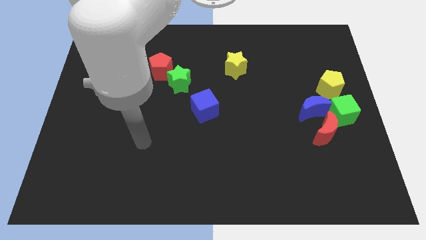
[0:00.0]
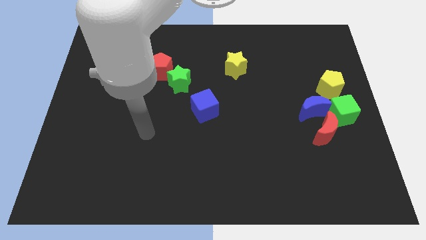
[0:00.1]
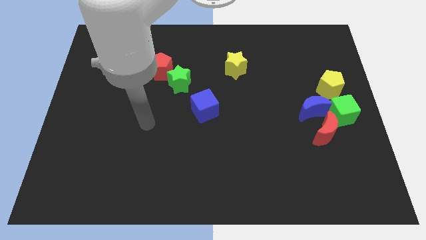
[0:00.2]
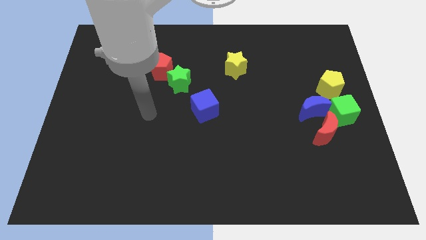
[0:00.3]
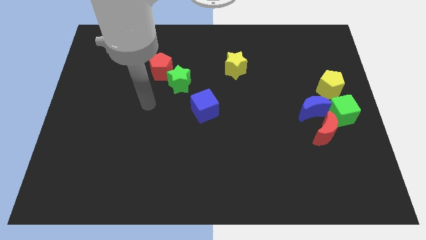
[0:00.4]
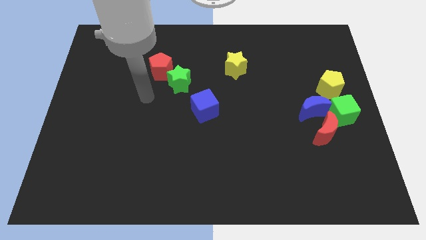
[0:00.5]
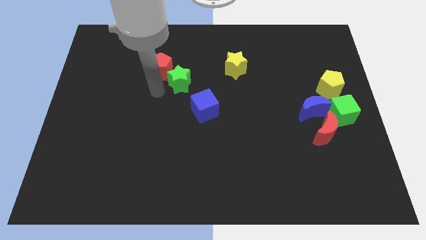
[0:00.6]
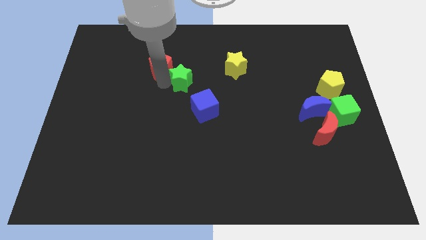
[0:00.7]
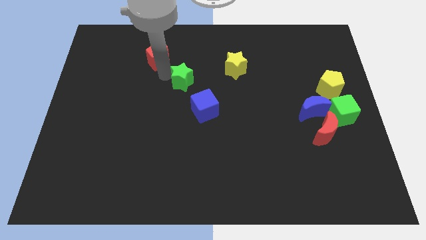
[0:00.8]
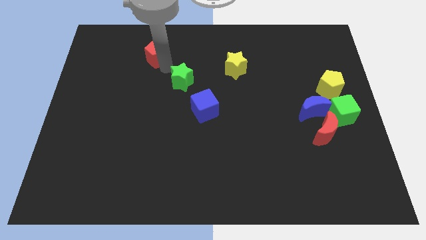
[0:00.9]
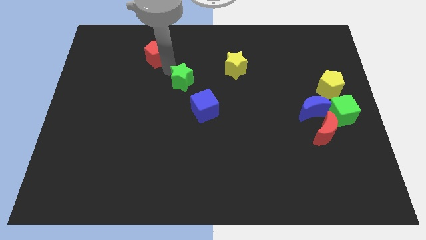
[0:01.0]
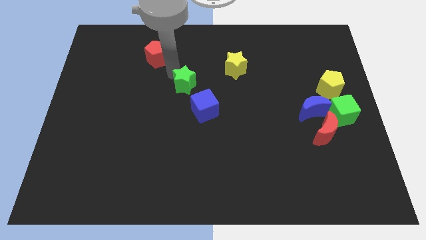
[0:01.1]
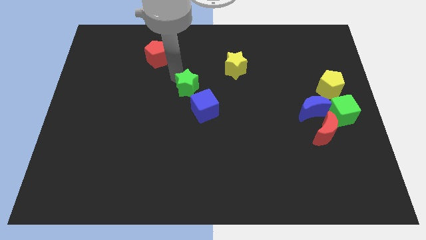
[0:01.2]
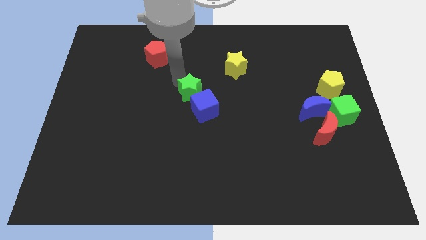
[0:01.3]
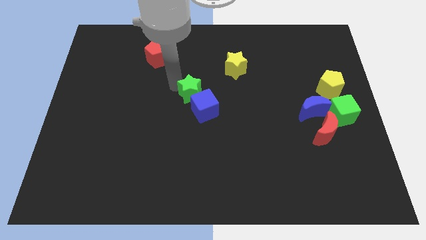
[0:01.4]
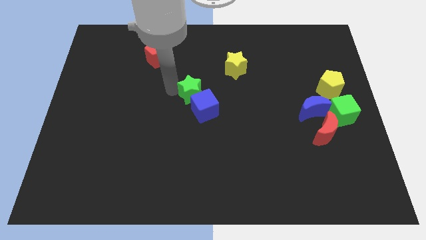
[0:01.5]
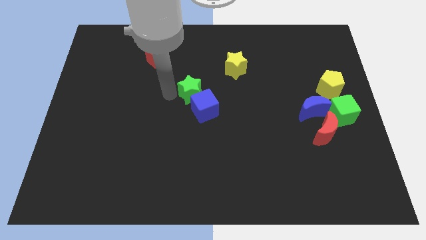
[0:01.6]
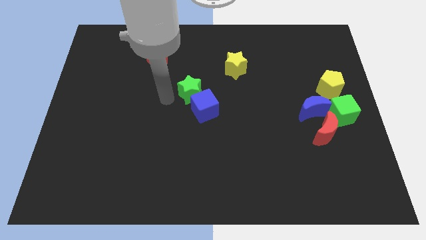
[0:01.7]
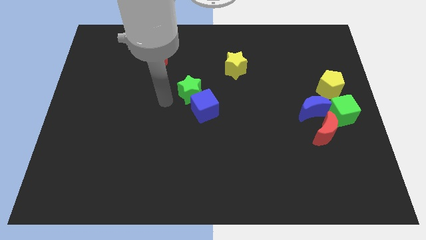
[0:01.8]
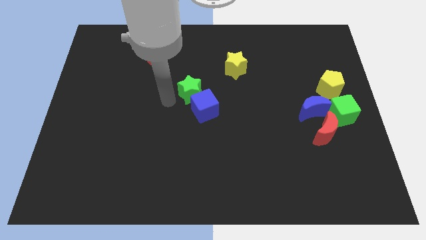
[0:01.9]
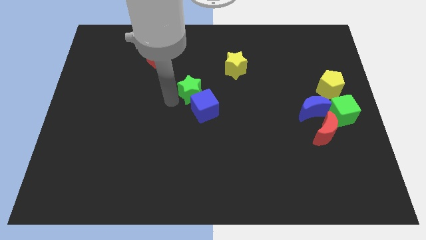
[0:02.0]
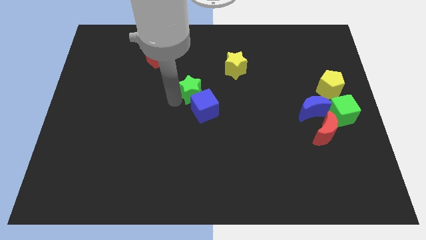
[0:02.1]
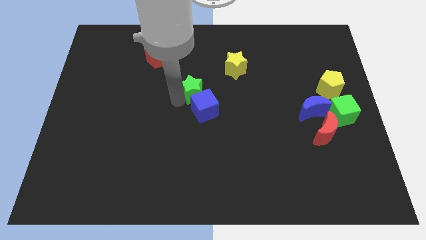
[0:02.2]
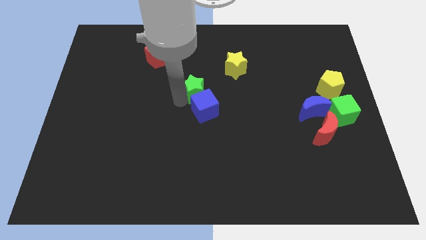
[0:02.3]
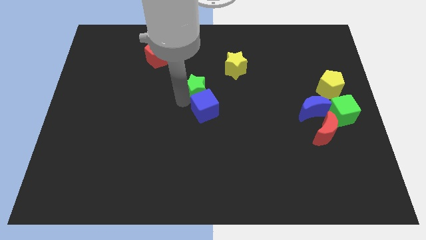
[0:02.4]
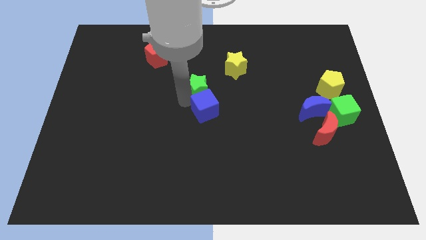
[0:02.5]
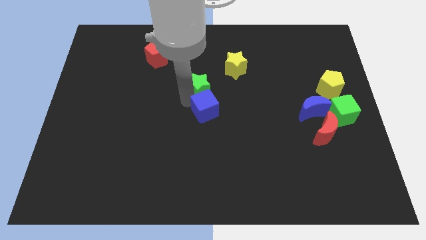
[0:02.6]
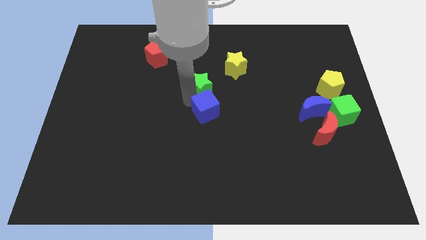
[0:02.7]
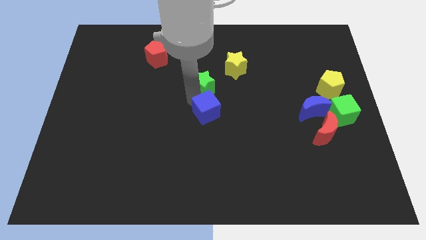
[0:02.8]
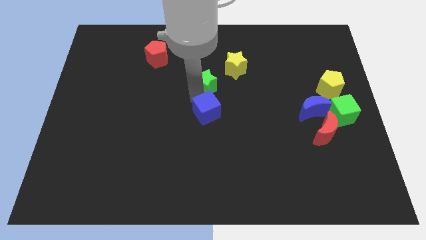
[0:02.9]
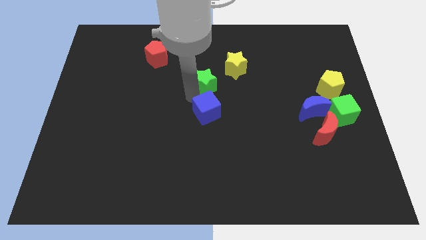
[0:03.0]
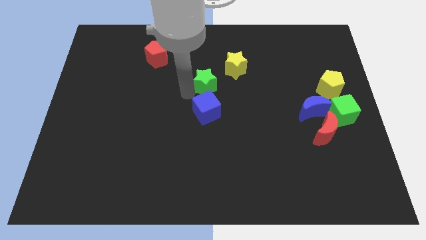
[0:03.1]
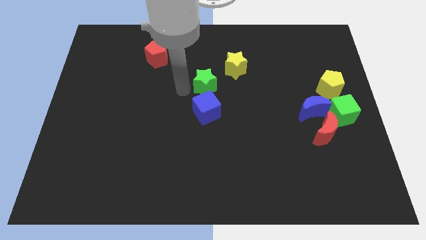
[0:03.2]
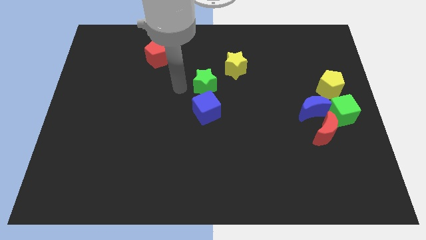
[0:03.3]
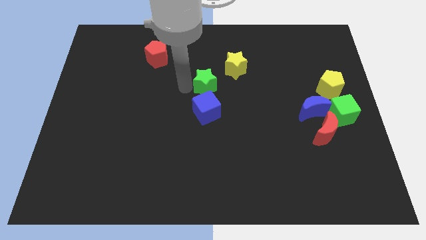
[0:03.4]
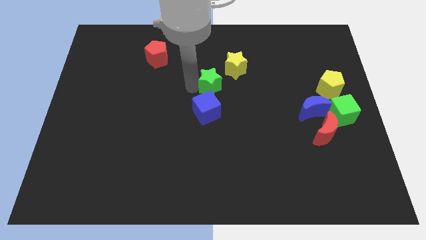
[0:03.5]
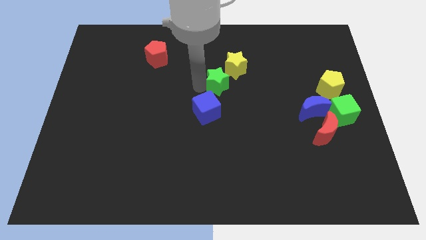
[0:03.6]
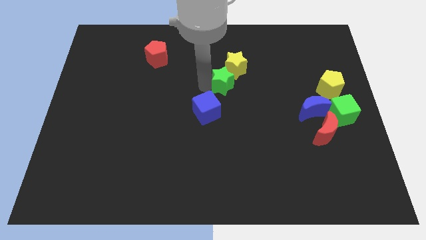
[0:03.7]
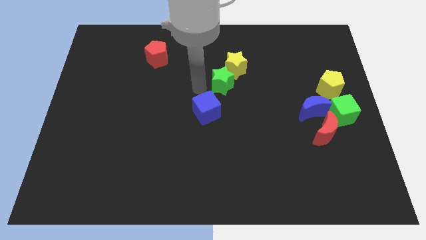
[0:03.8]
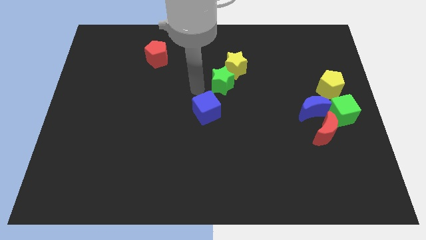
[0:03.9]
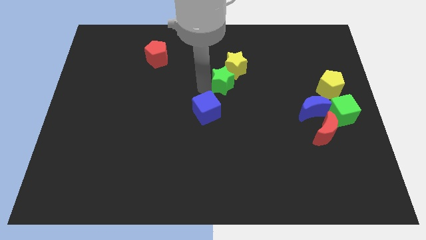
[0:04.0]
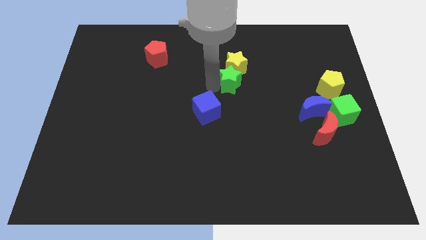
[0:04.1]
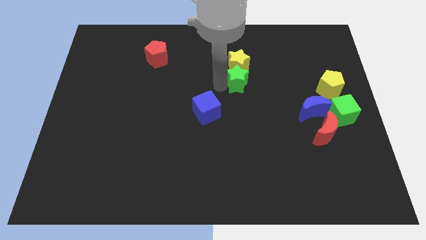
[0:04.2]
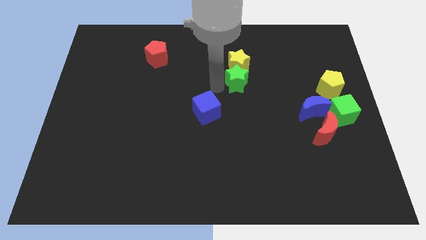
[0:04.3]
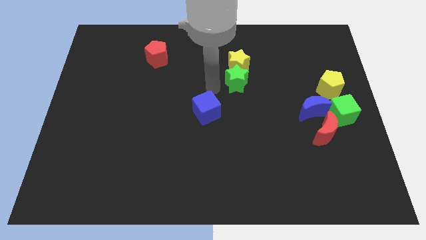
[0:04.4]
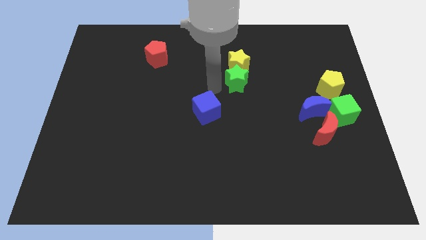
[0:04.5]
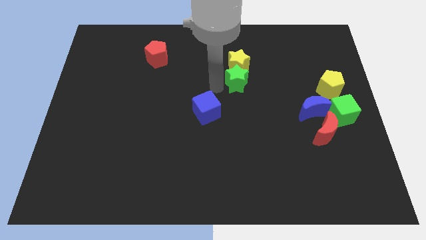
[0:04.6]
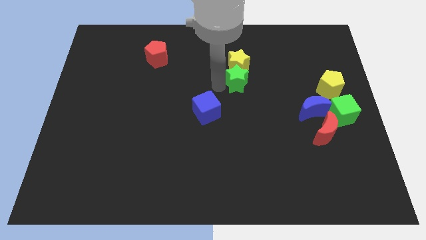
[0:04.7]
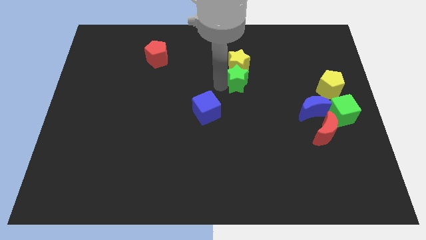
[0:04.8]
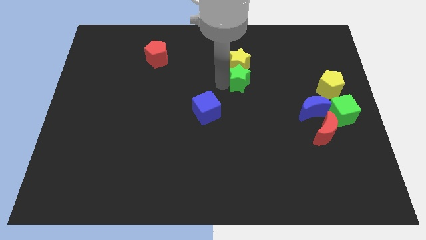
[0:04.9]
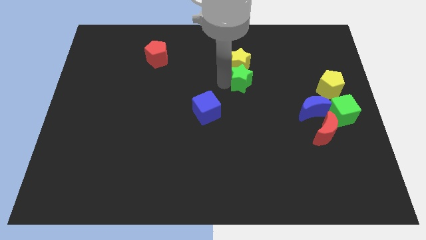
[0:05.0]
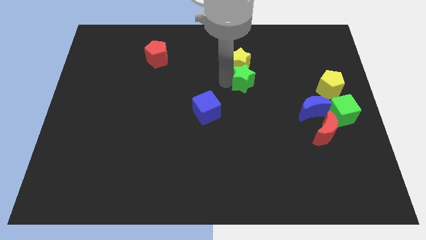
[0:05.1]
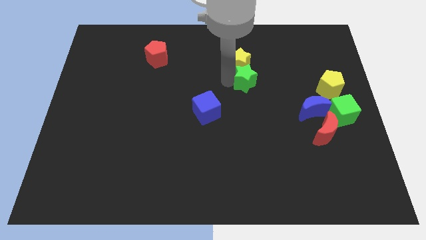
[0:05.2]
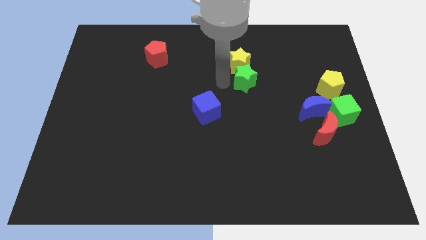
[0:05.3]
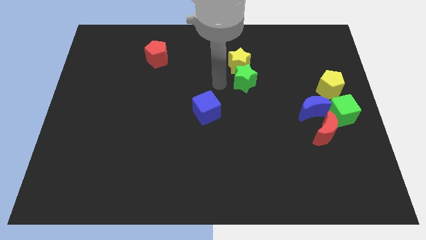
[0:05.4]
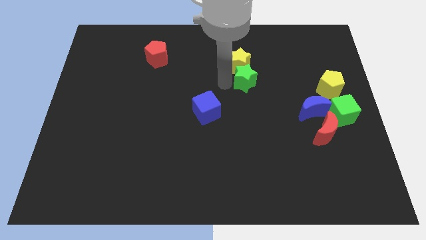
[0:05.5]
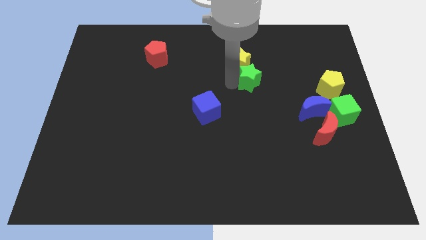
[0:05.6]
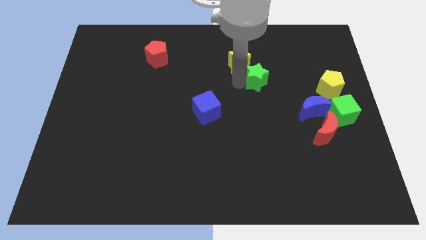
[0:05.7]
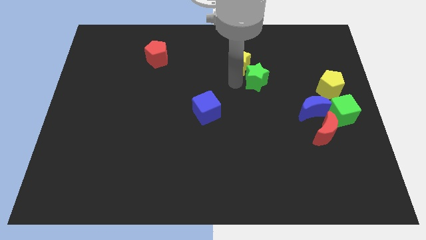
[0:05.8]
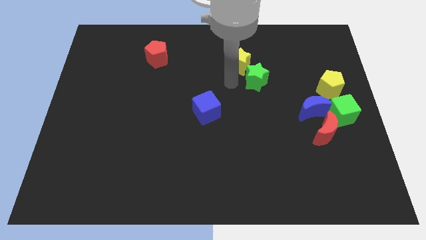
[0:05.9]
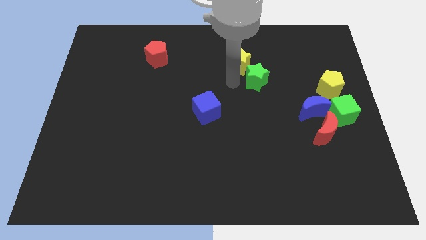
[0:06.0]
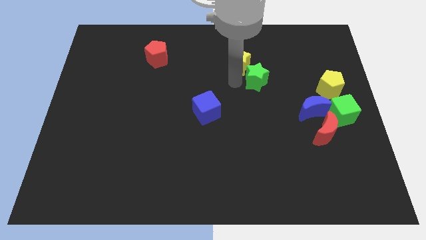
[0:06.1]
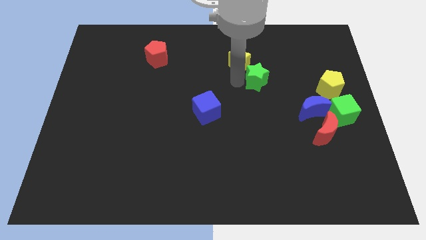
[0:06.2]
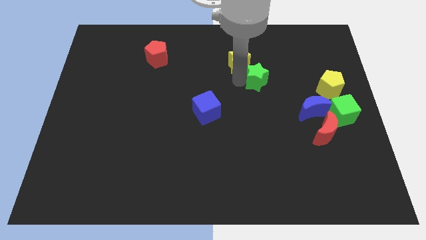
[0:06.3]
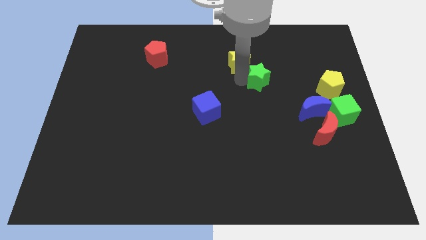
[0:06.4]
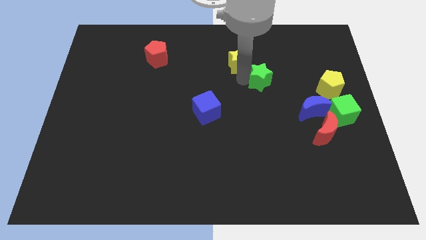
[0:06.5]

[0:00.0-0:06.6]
slide the green star right

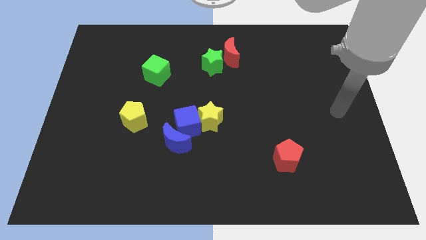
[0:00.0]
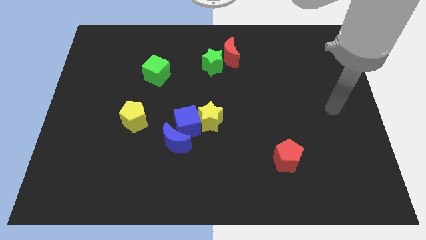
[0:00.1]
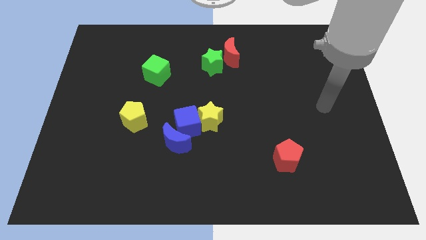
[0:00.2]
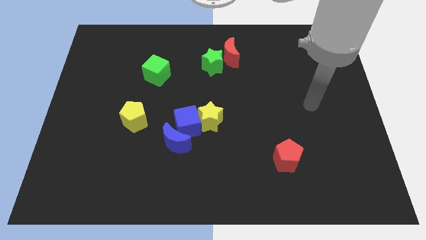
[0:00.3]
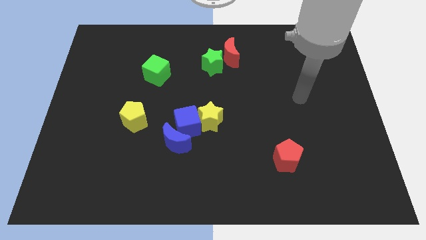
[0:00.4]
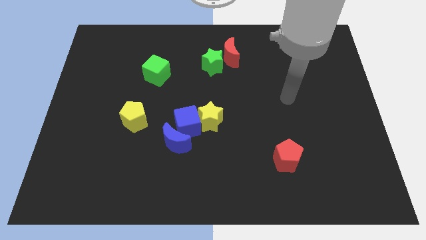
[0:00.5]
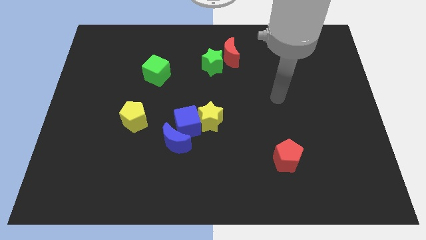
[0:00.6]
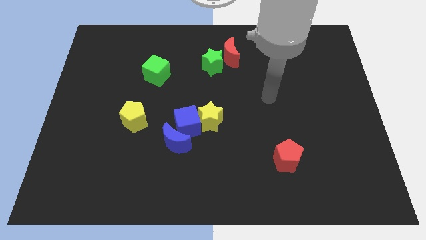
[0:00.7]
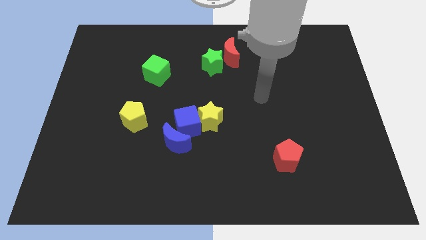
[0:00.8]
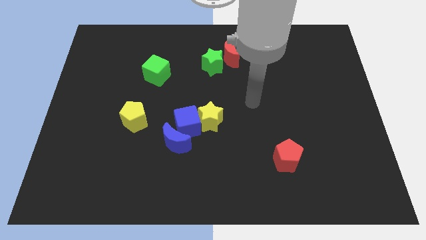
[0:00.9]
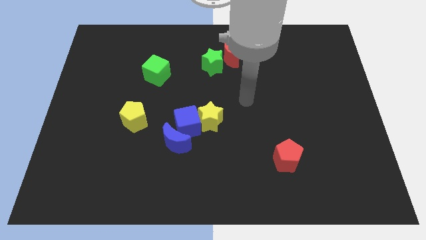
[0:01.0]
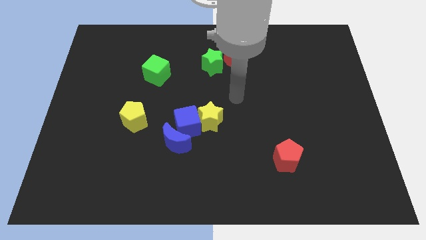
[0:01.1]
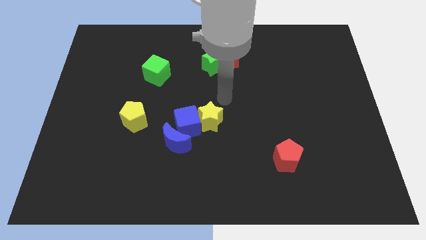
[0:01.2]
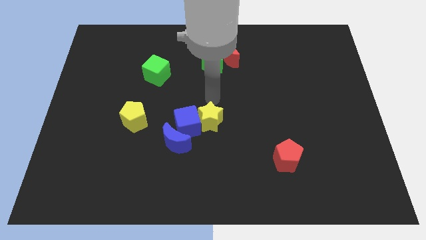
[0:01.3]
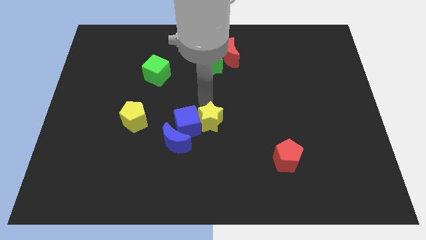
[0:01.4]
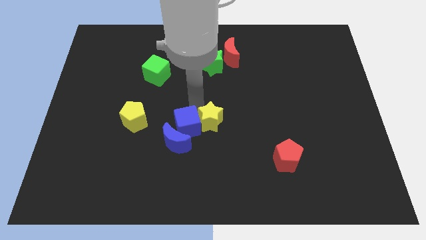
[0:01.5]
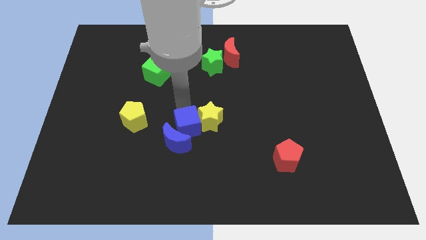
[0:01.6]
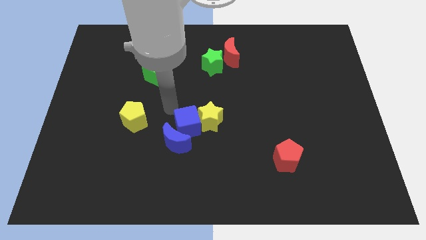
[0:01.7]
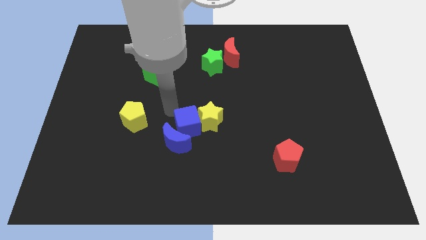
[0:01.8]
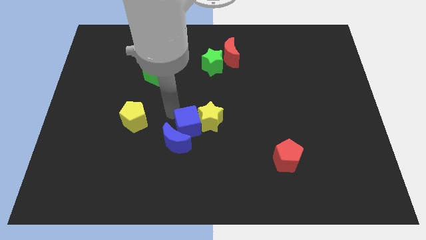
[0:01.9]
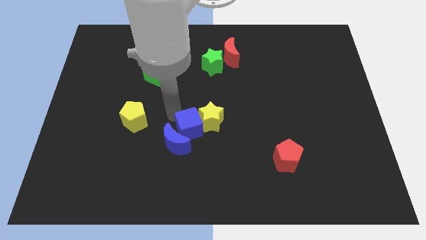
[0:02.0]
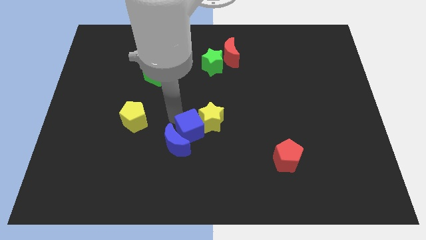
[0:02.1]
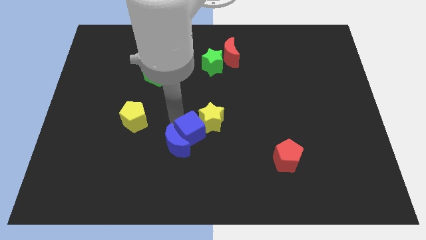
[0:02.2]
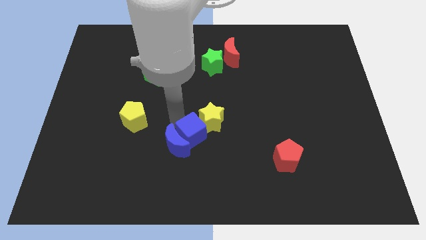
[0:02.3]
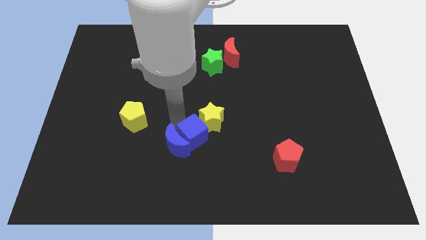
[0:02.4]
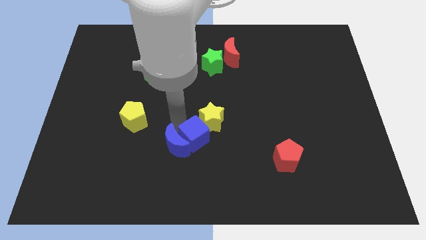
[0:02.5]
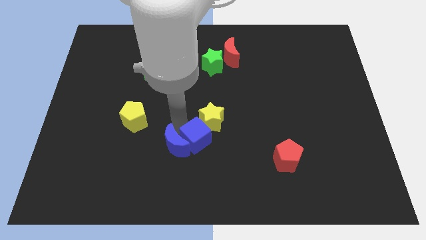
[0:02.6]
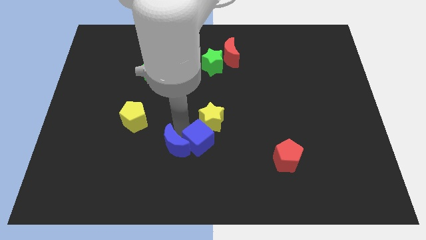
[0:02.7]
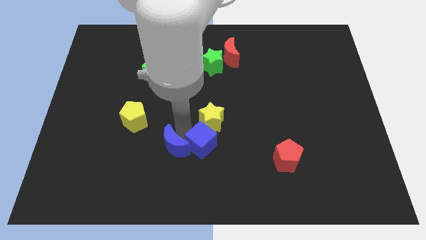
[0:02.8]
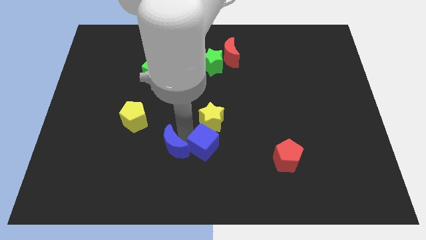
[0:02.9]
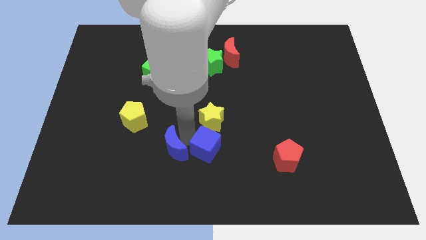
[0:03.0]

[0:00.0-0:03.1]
slide the blue cube a little bit down and then right
